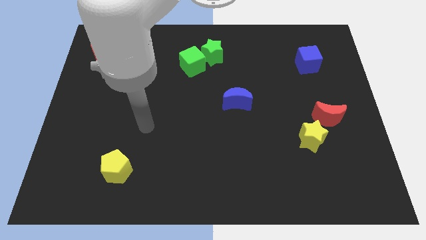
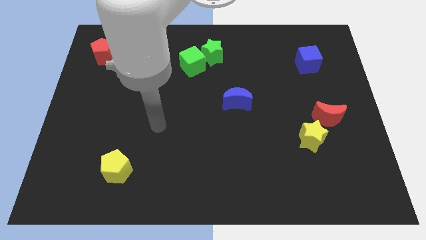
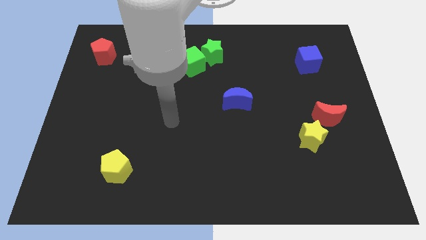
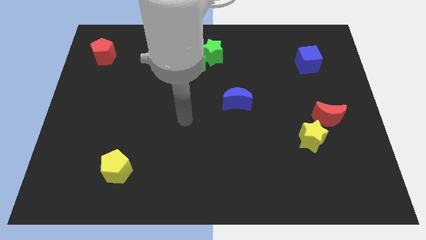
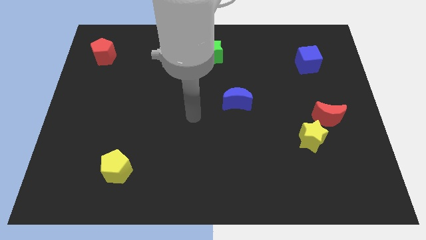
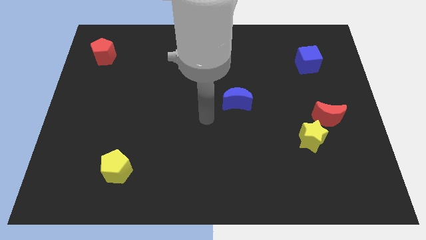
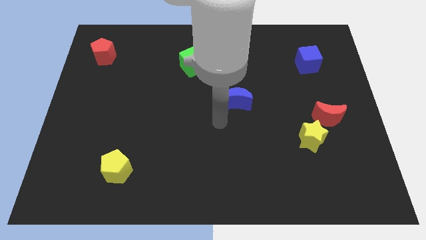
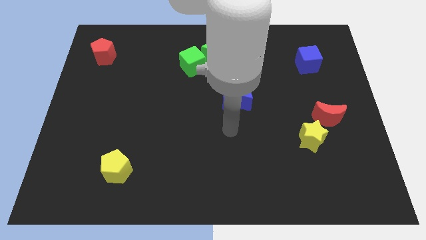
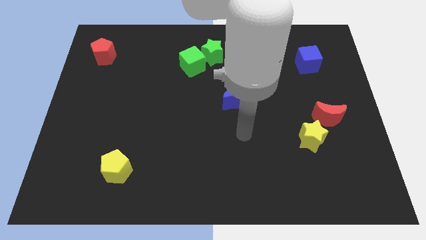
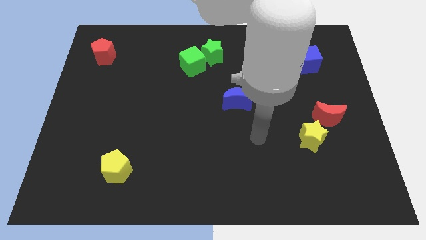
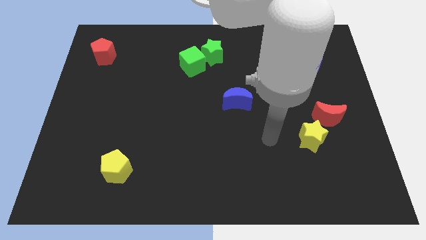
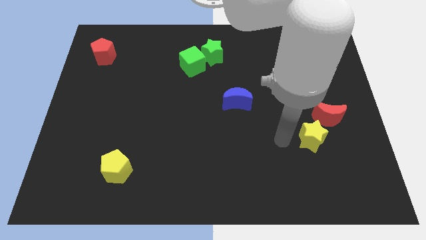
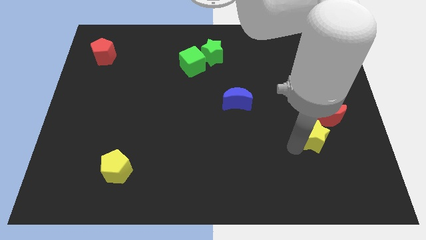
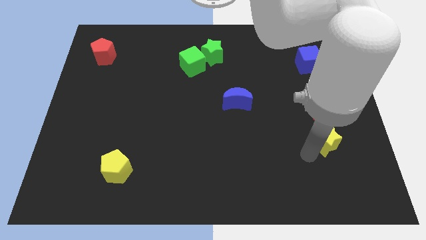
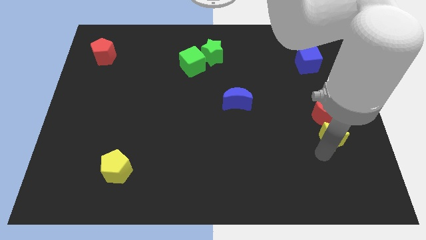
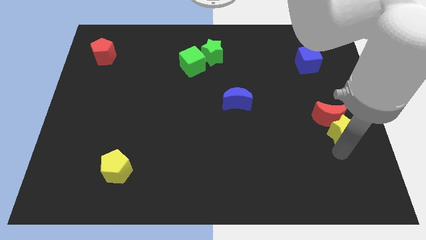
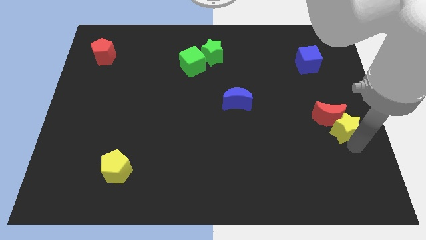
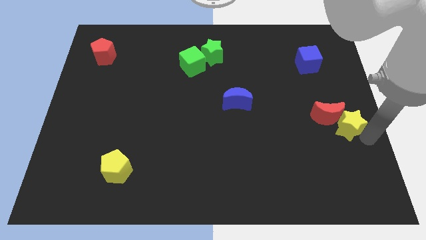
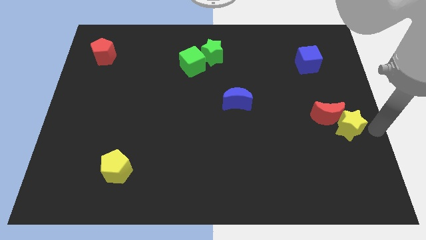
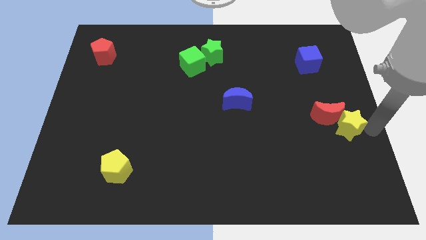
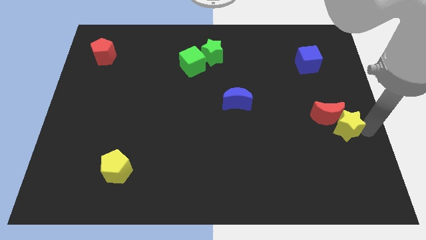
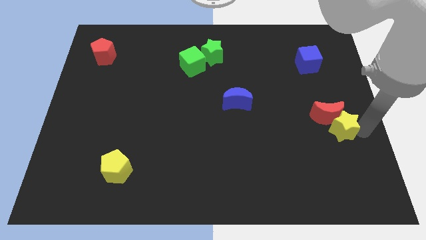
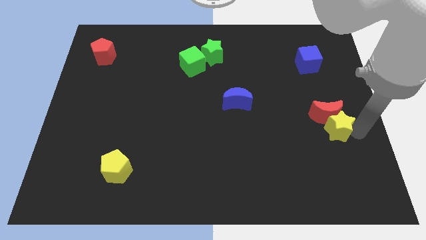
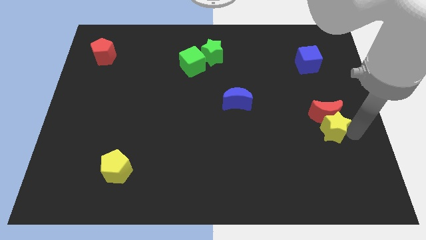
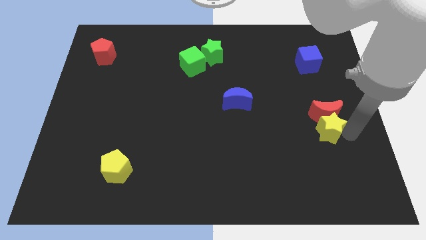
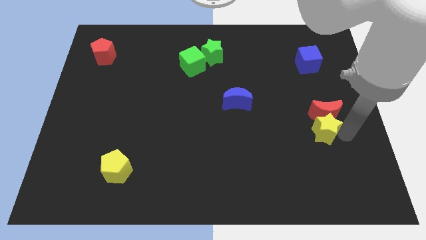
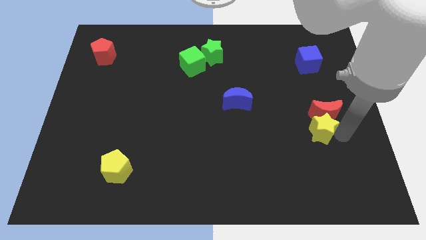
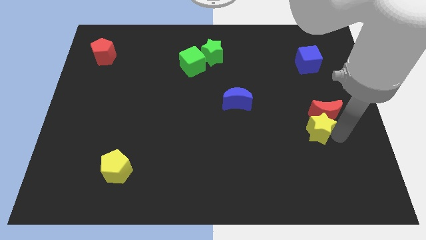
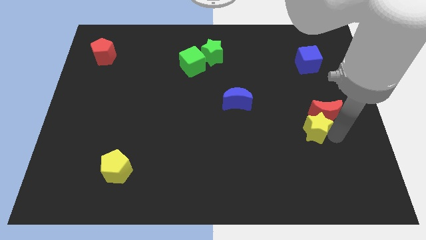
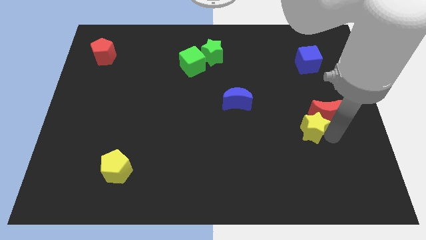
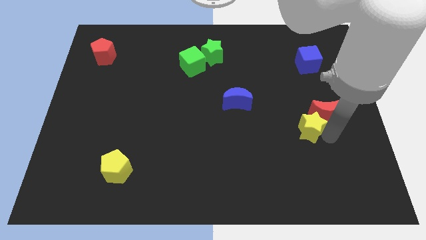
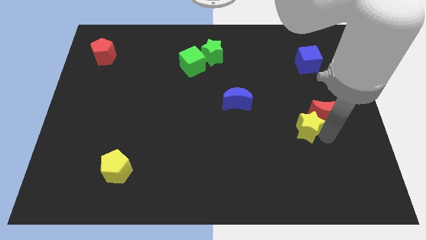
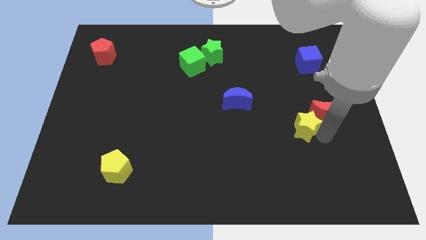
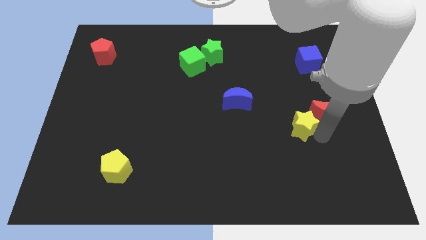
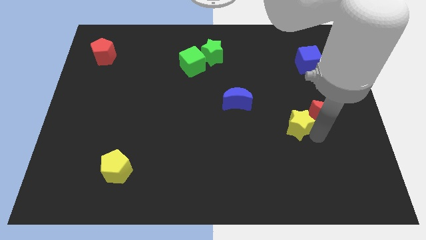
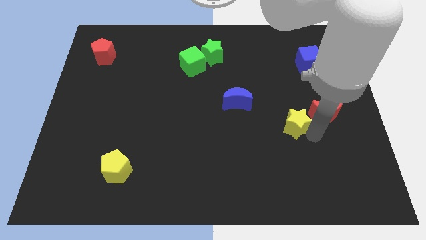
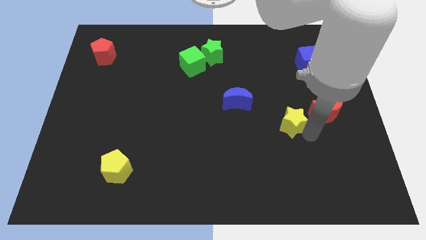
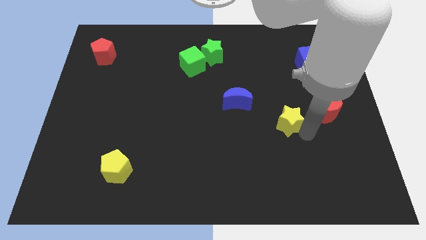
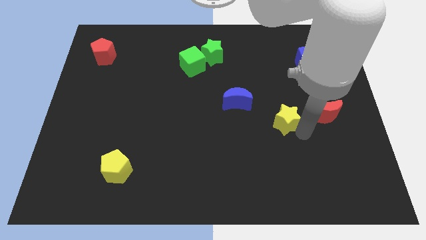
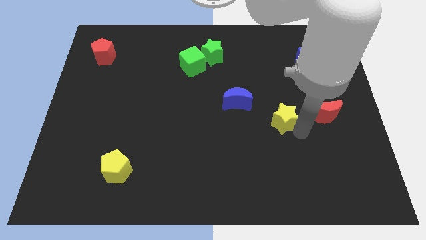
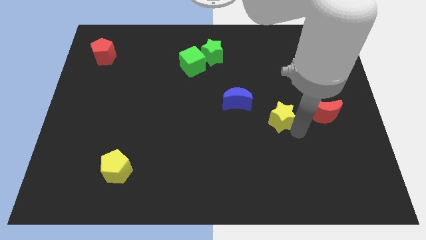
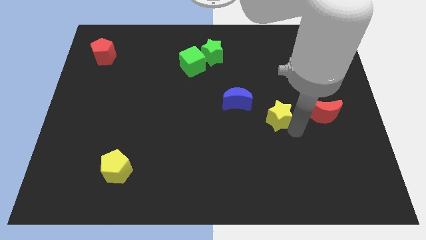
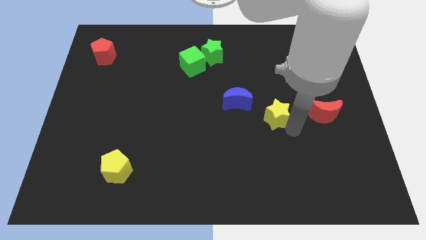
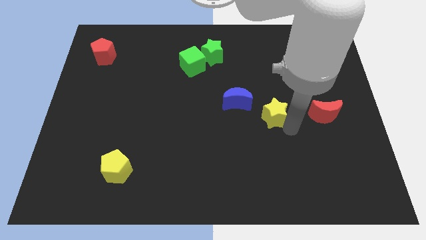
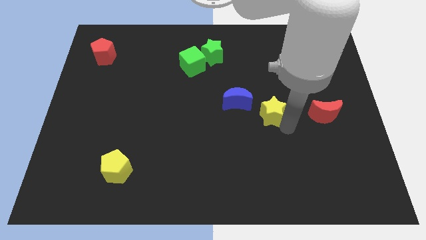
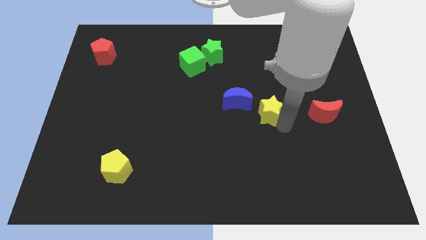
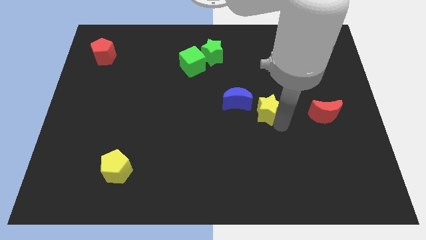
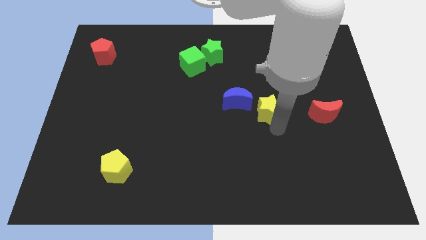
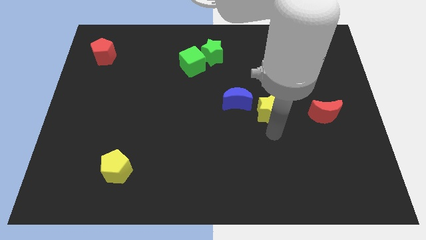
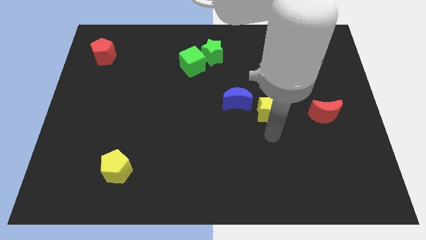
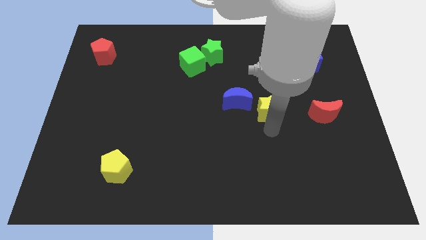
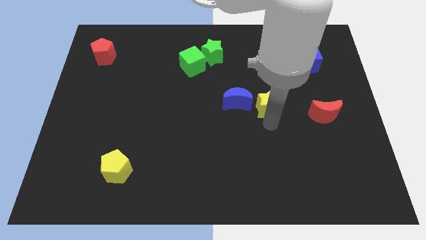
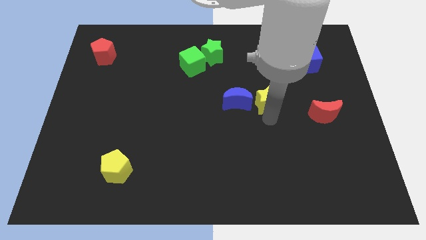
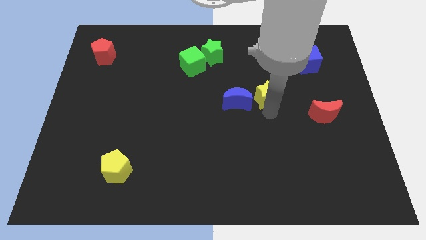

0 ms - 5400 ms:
slide the yellow star to the top right of the blue moon

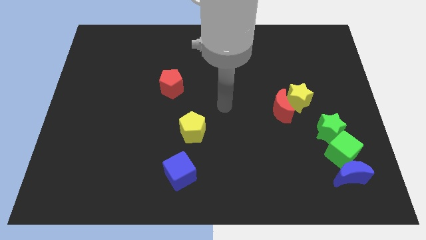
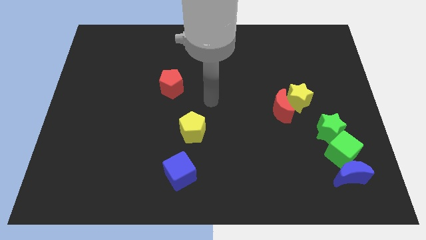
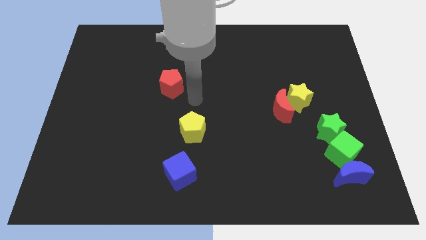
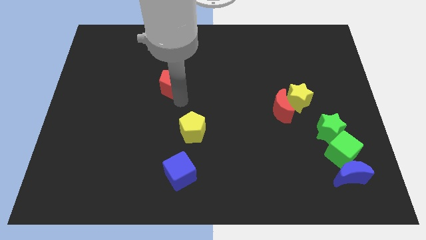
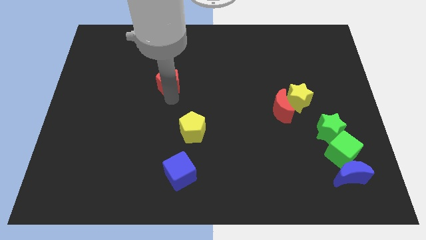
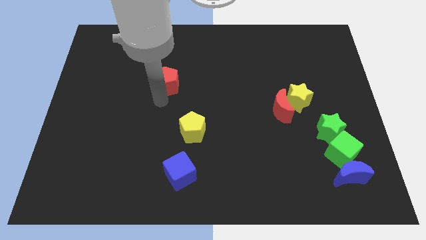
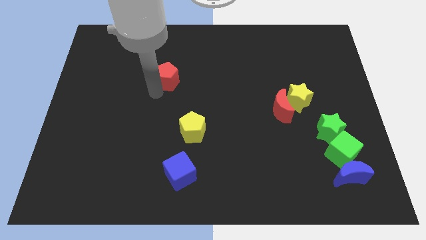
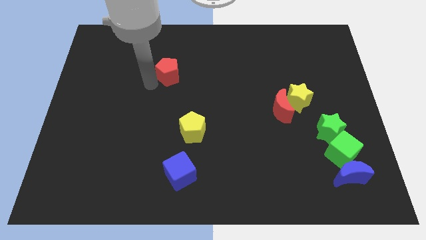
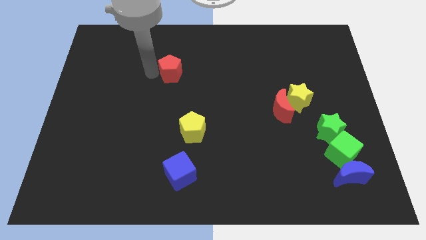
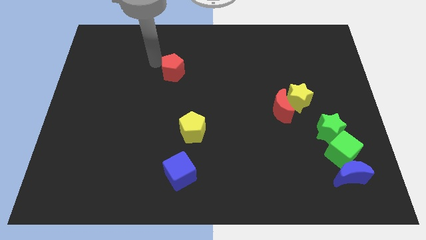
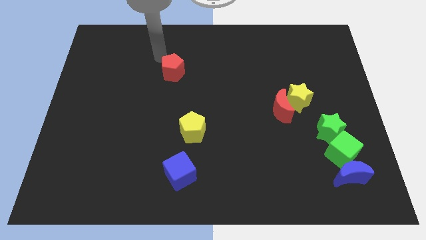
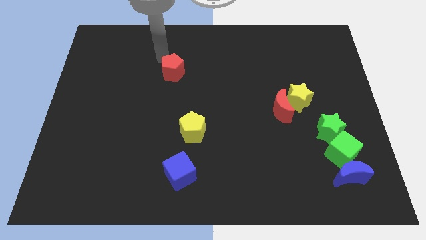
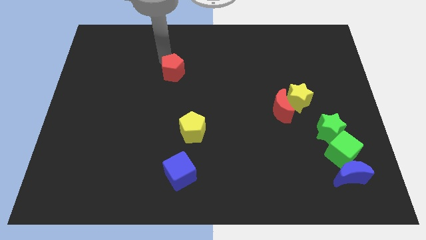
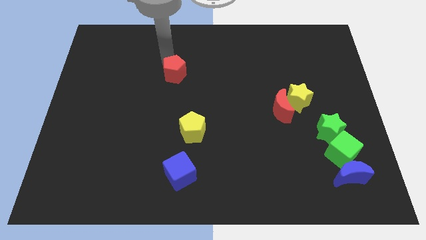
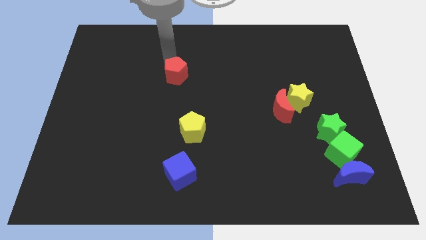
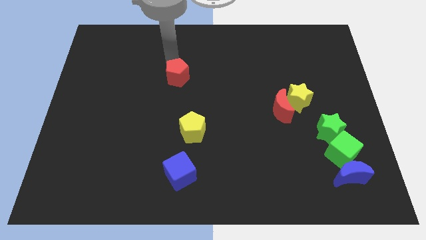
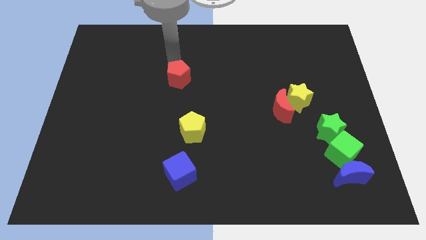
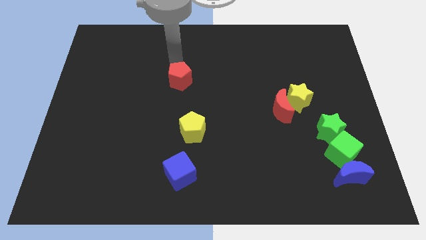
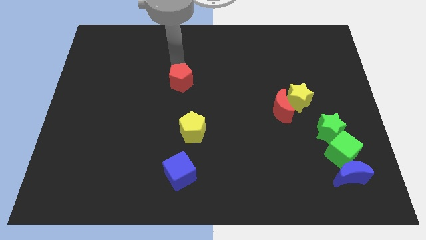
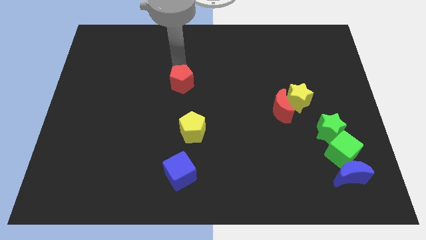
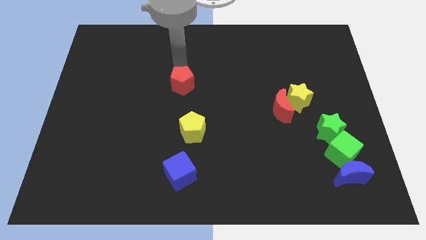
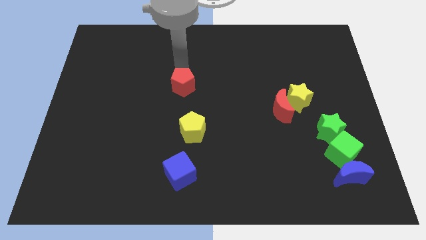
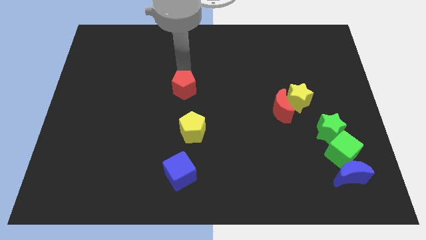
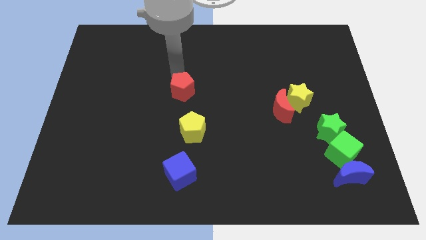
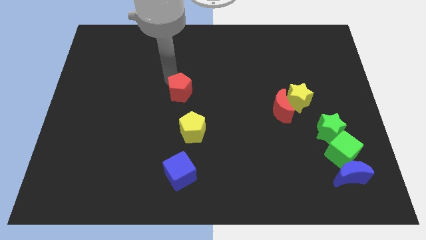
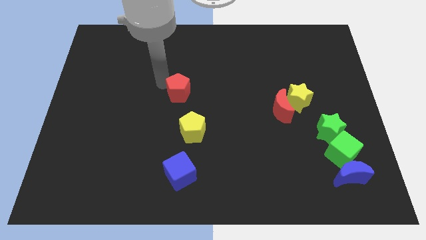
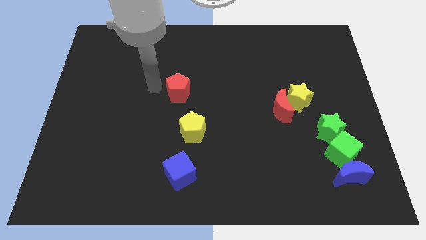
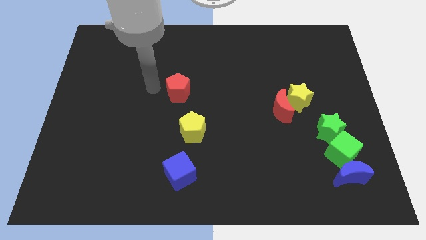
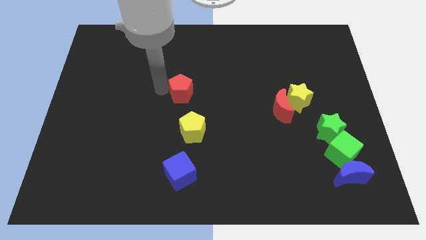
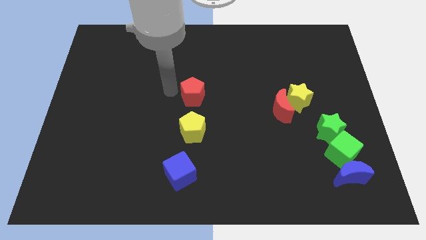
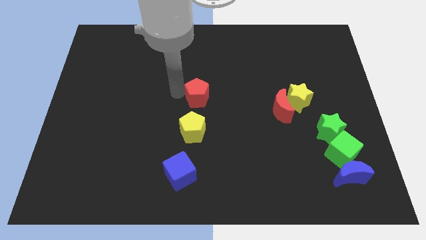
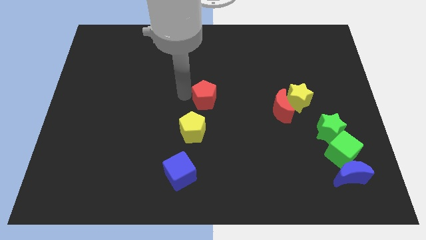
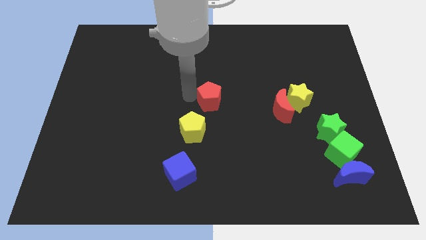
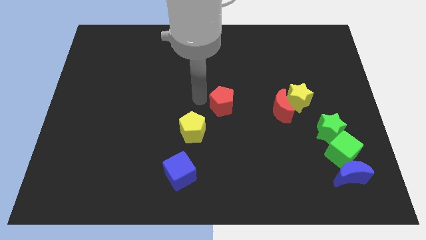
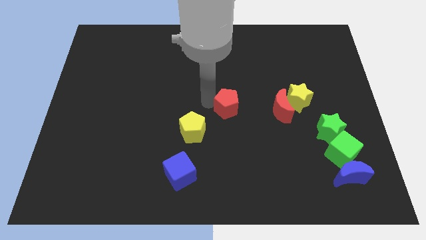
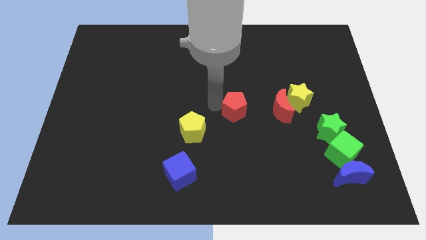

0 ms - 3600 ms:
slide the red pentagon to the left side of the yellow star
